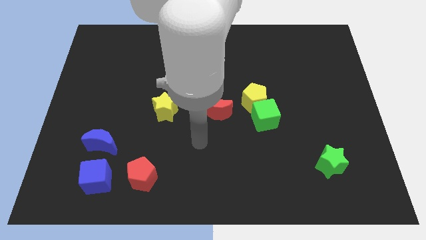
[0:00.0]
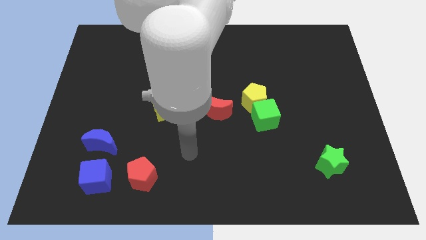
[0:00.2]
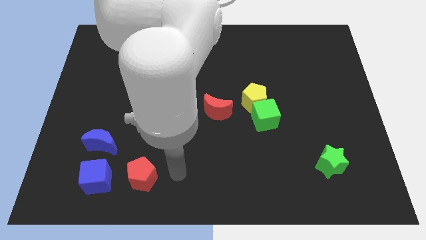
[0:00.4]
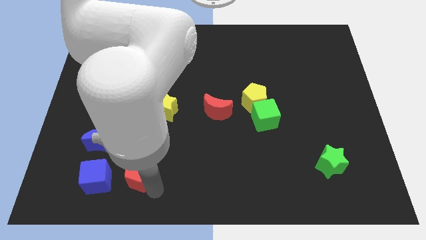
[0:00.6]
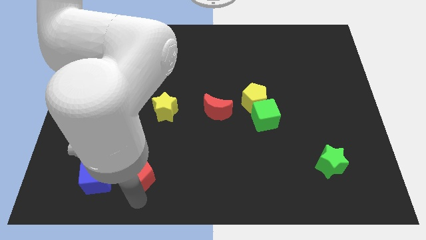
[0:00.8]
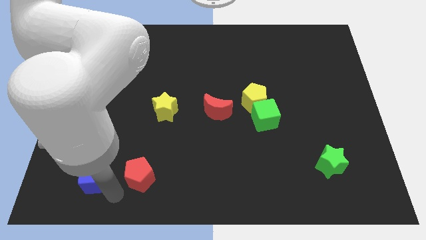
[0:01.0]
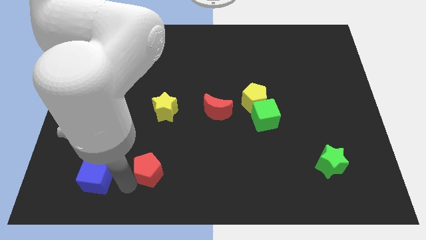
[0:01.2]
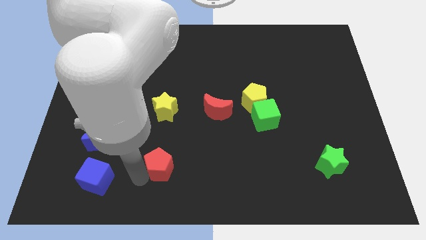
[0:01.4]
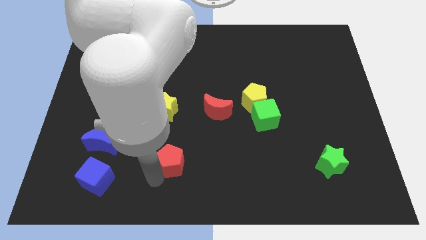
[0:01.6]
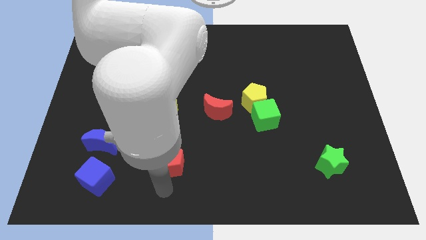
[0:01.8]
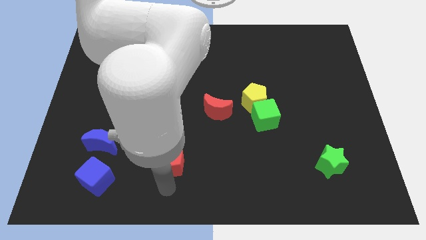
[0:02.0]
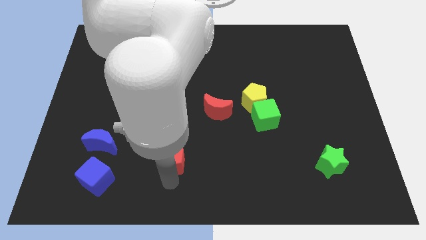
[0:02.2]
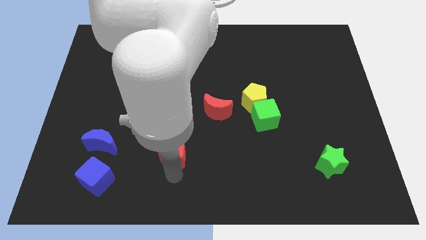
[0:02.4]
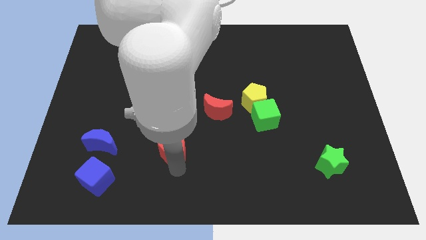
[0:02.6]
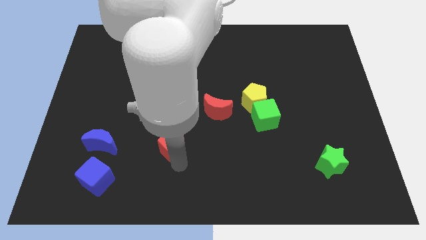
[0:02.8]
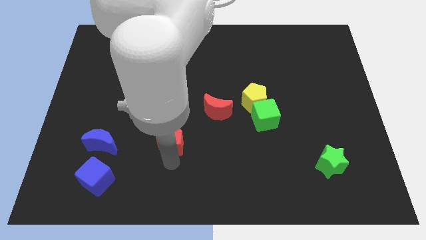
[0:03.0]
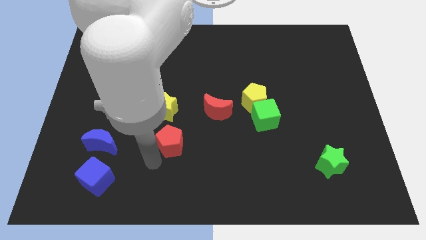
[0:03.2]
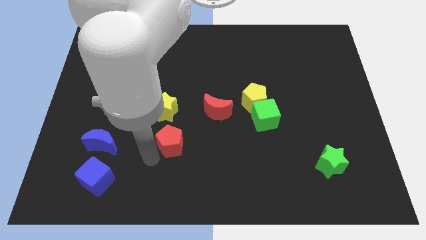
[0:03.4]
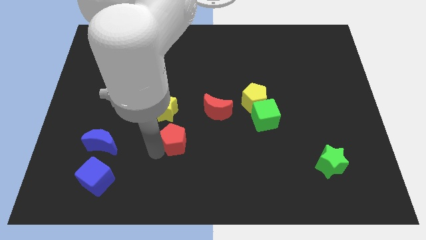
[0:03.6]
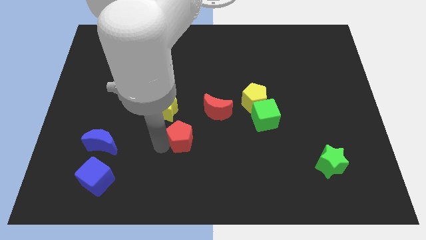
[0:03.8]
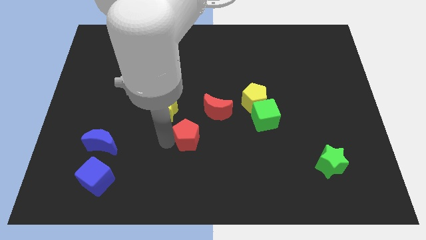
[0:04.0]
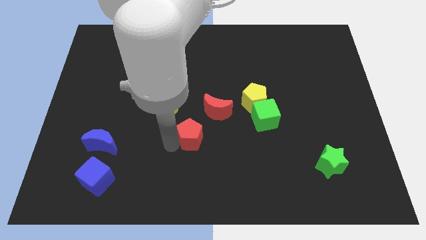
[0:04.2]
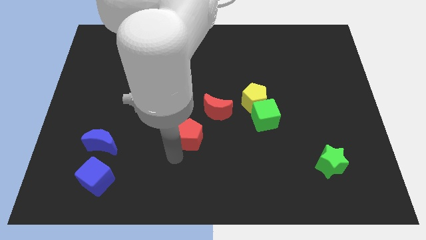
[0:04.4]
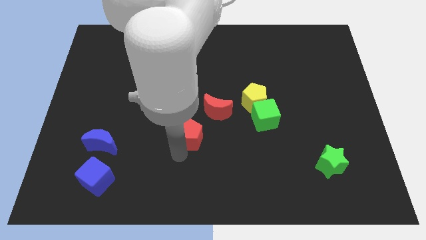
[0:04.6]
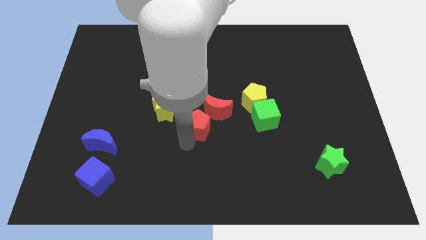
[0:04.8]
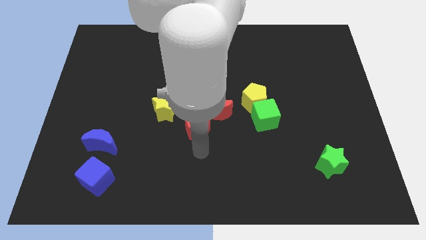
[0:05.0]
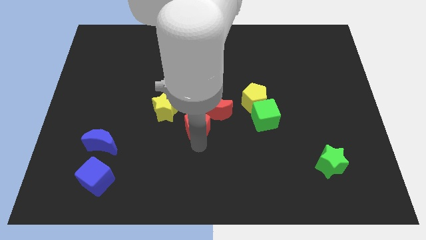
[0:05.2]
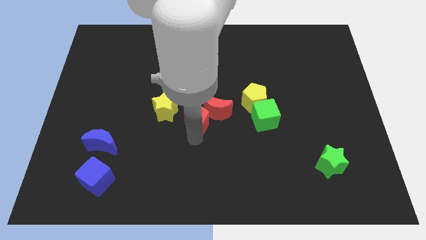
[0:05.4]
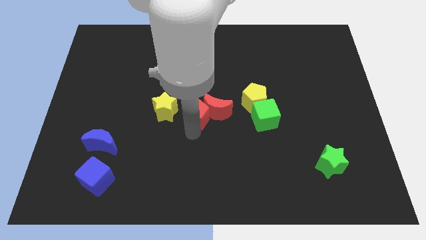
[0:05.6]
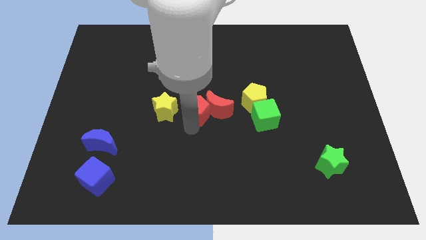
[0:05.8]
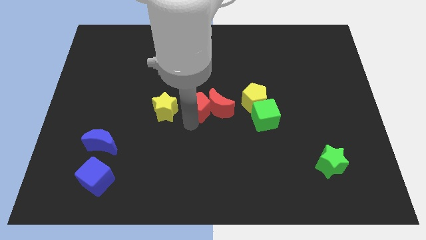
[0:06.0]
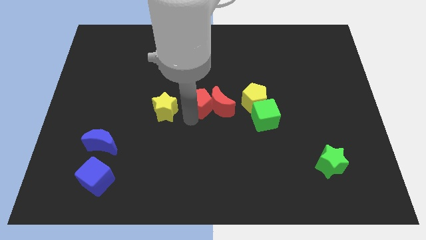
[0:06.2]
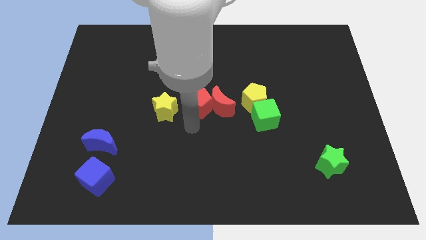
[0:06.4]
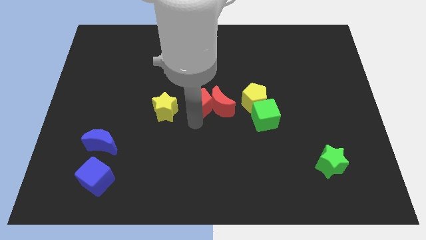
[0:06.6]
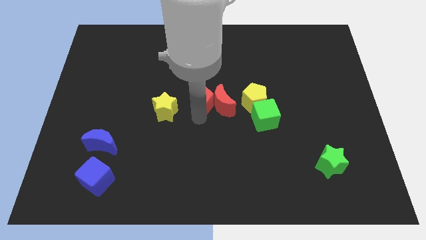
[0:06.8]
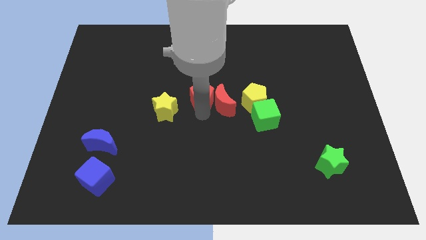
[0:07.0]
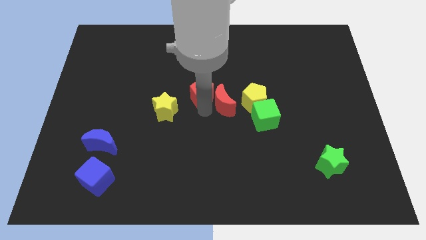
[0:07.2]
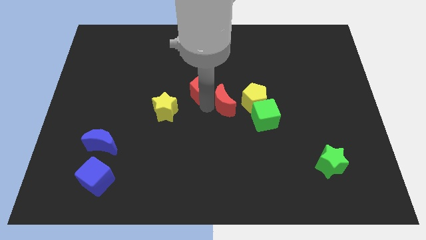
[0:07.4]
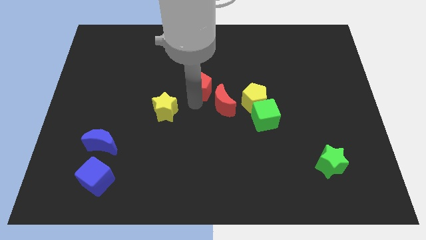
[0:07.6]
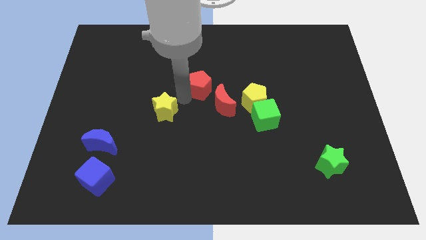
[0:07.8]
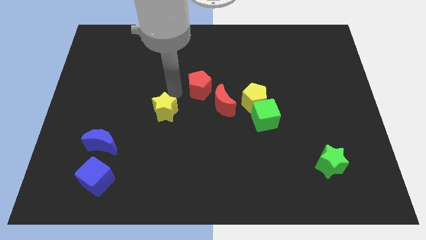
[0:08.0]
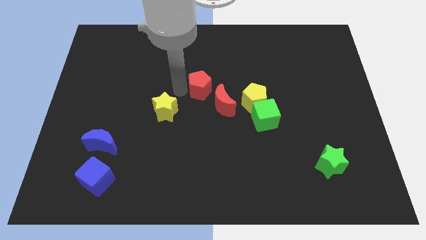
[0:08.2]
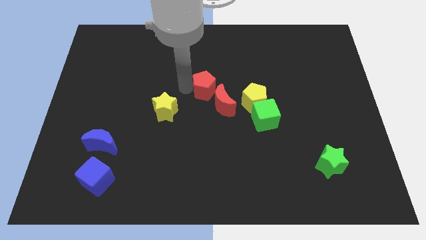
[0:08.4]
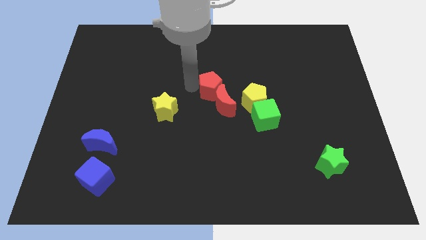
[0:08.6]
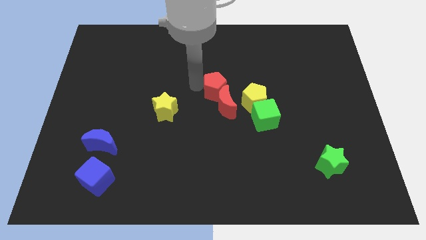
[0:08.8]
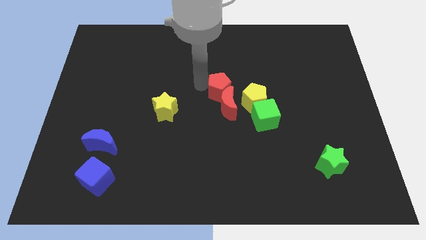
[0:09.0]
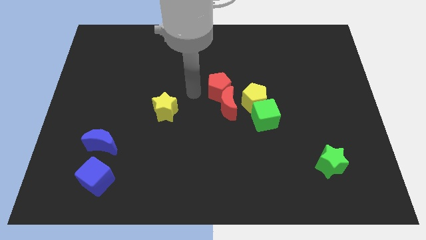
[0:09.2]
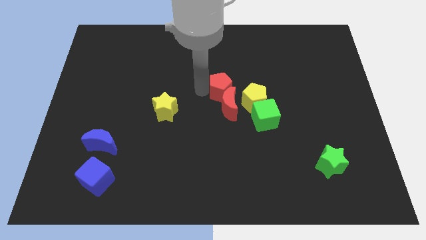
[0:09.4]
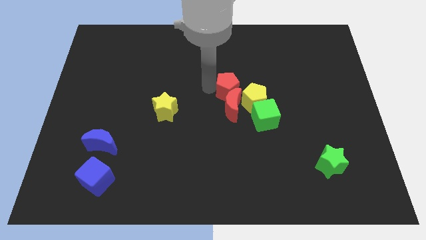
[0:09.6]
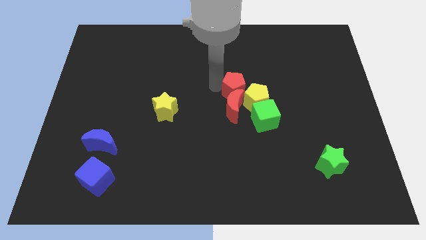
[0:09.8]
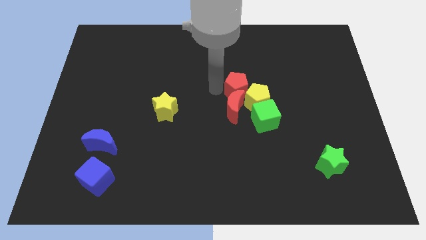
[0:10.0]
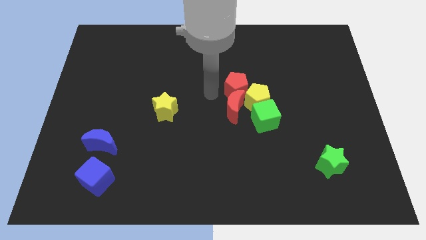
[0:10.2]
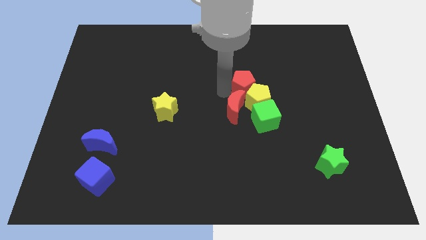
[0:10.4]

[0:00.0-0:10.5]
slide the red pentagon above the green cube

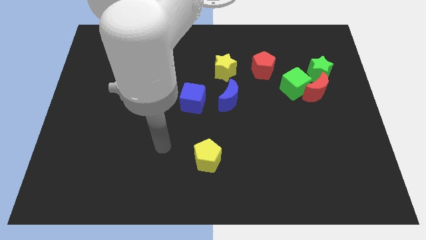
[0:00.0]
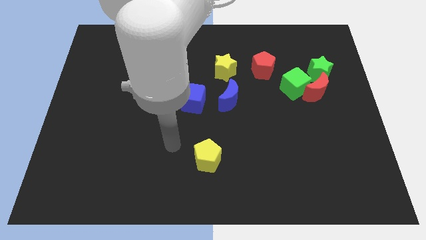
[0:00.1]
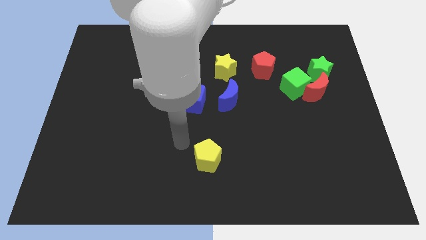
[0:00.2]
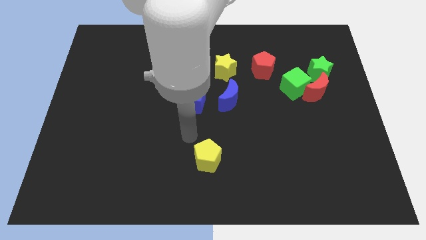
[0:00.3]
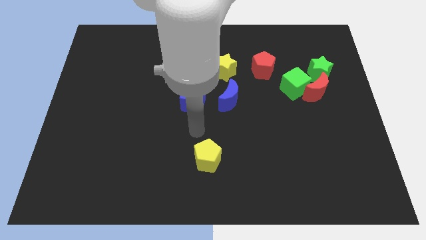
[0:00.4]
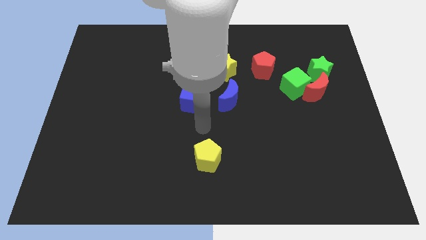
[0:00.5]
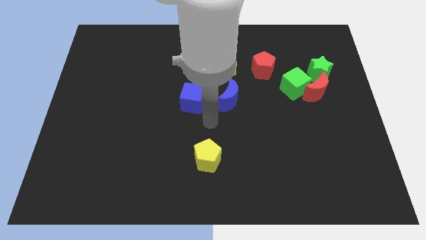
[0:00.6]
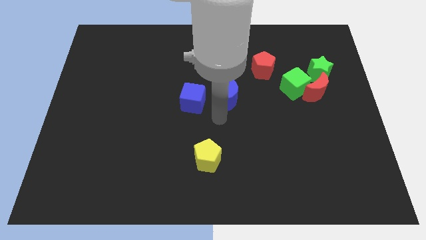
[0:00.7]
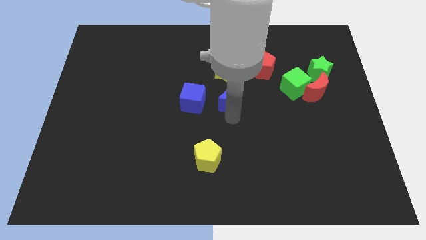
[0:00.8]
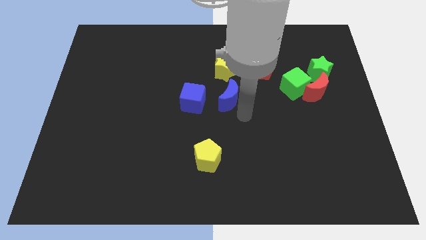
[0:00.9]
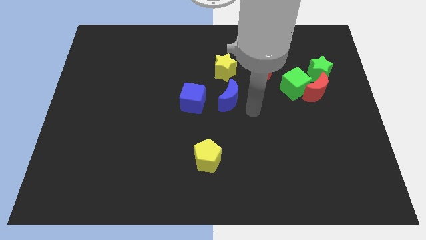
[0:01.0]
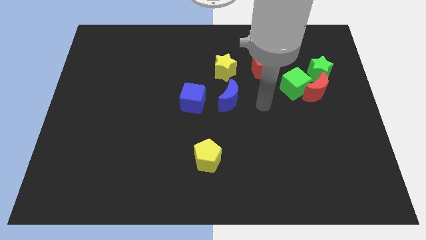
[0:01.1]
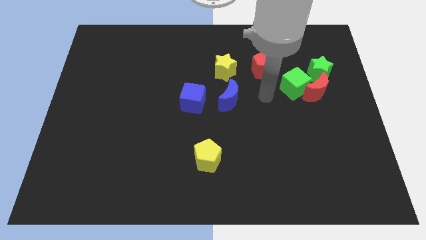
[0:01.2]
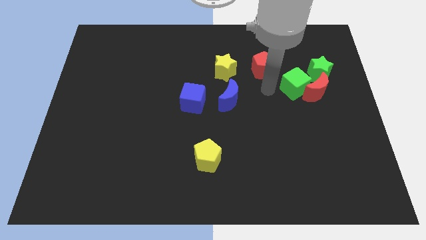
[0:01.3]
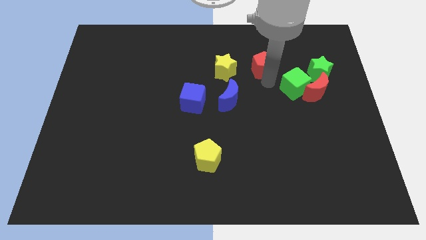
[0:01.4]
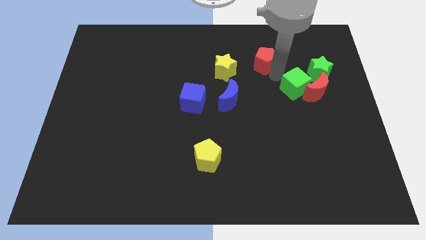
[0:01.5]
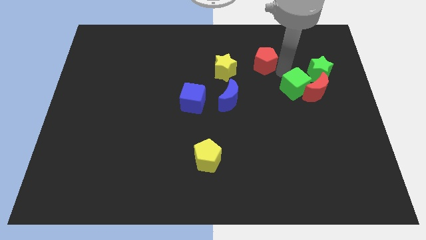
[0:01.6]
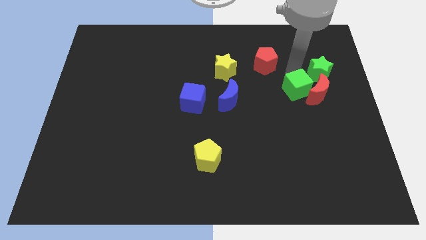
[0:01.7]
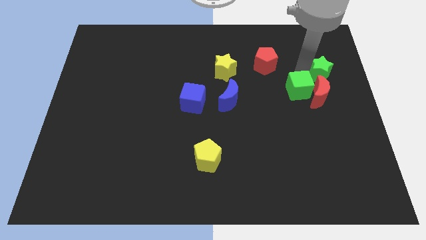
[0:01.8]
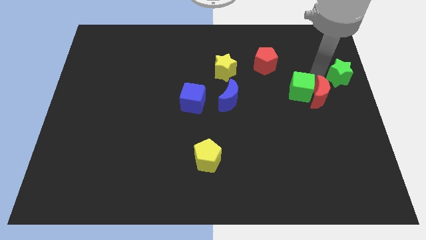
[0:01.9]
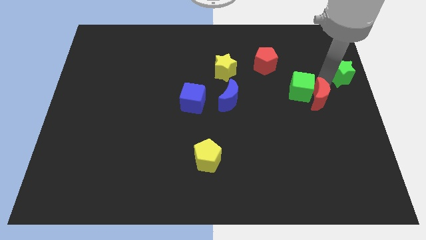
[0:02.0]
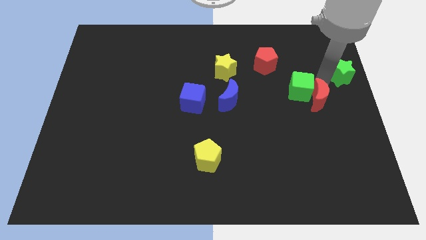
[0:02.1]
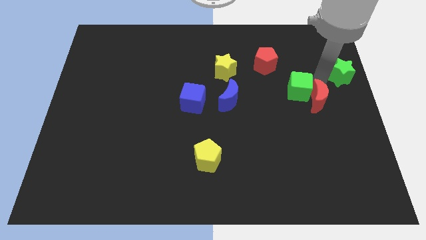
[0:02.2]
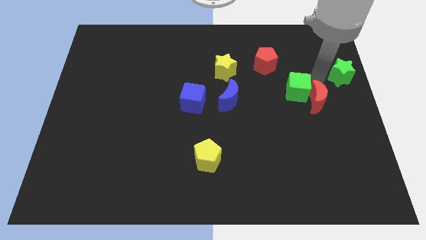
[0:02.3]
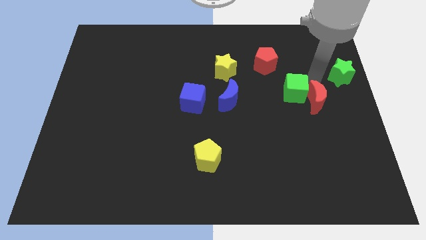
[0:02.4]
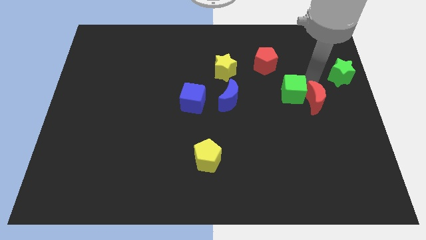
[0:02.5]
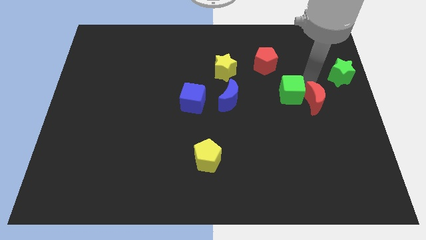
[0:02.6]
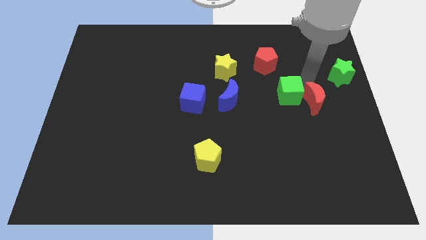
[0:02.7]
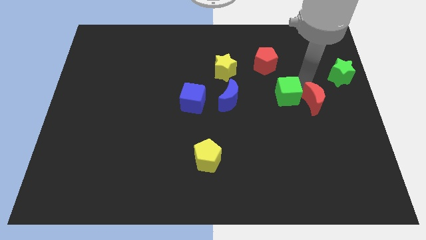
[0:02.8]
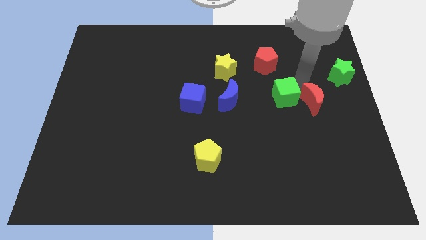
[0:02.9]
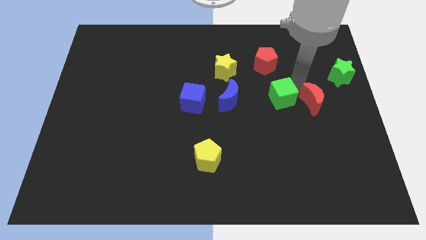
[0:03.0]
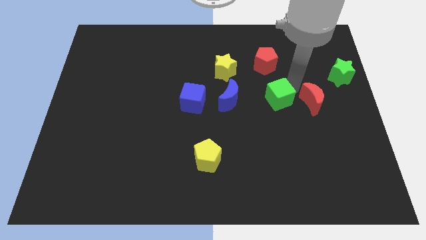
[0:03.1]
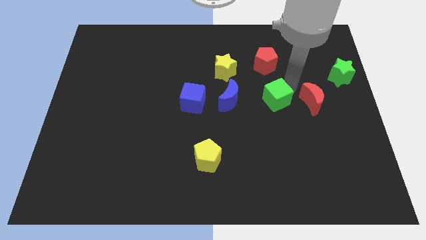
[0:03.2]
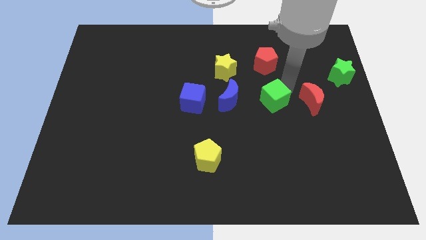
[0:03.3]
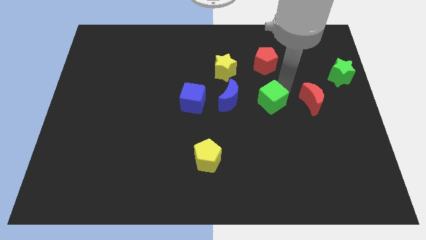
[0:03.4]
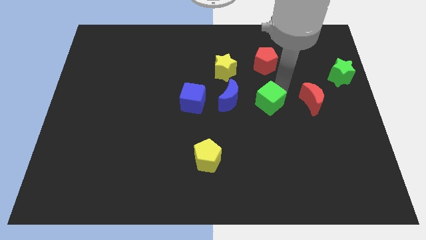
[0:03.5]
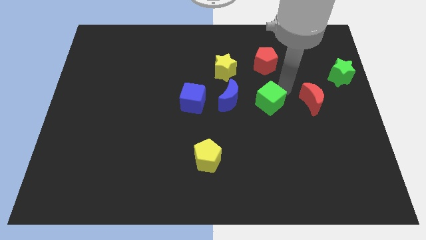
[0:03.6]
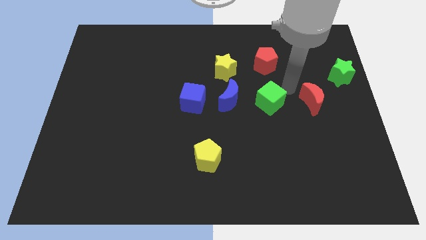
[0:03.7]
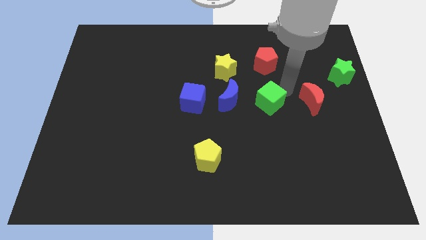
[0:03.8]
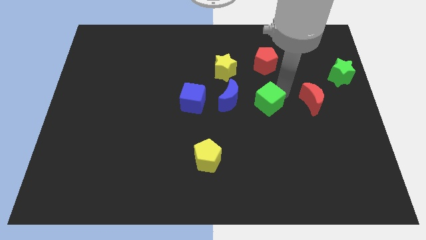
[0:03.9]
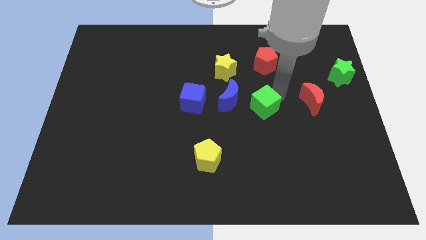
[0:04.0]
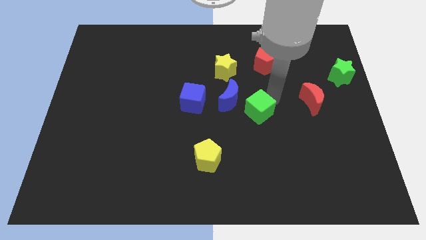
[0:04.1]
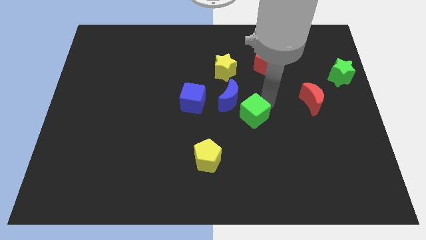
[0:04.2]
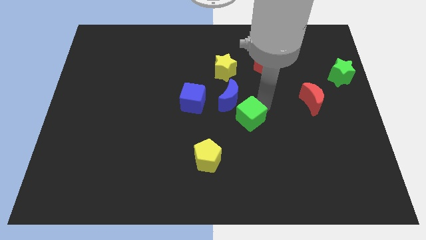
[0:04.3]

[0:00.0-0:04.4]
push the green cube below the blue moon
